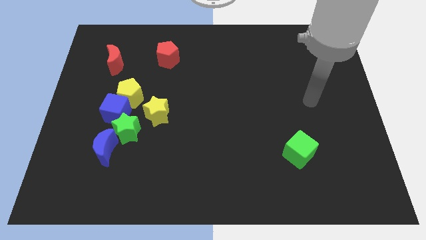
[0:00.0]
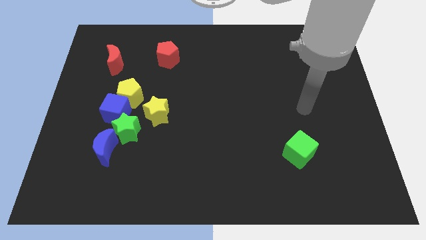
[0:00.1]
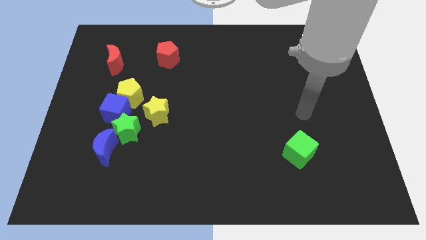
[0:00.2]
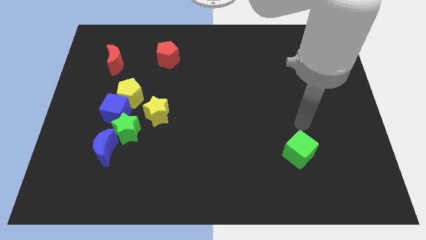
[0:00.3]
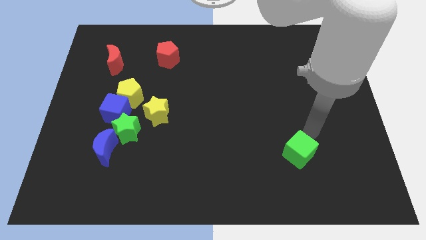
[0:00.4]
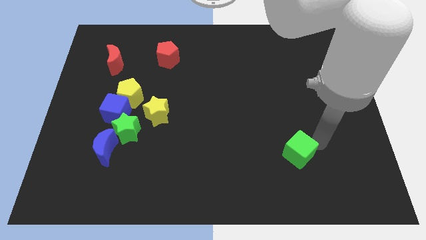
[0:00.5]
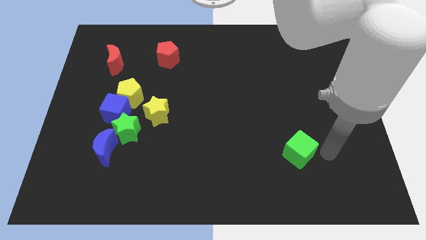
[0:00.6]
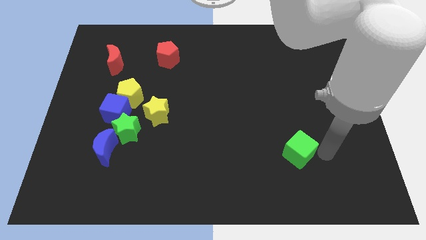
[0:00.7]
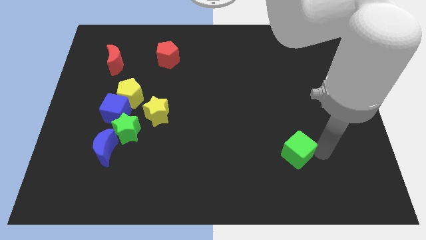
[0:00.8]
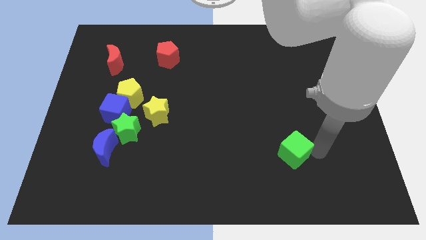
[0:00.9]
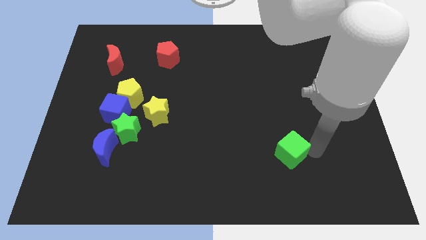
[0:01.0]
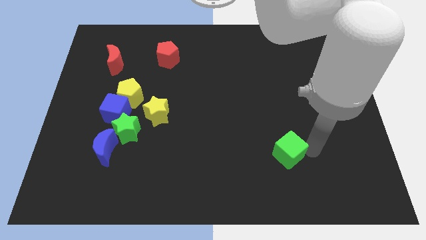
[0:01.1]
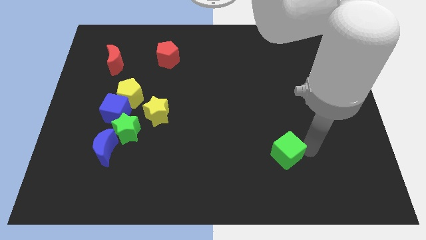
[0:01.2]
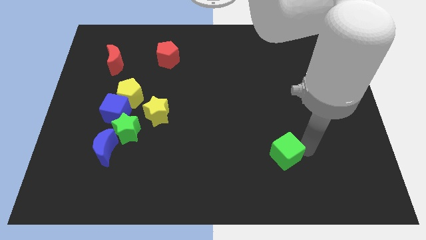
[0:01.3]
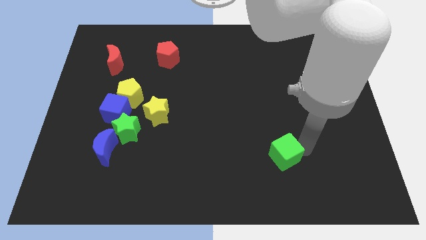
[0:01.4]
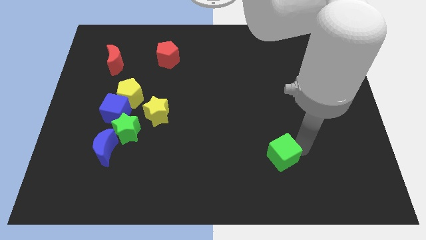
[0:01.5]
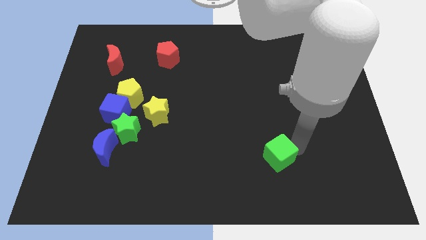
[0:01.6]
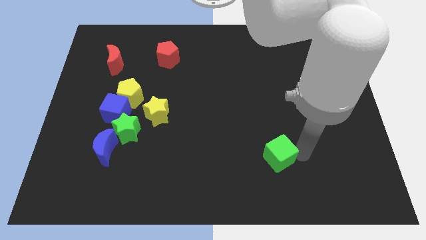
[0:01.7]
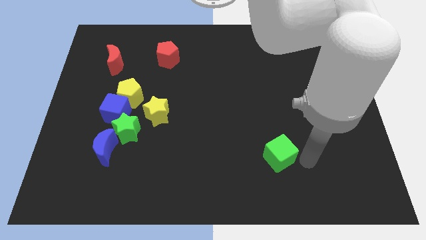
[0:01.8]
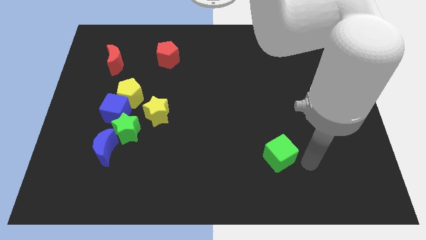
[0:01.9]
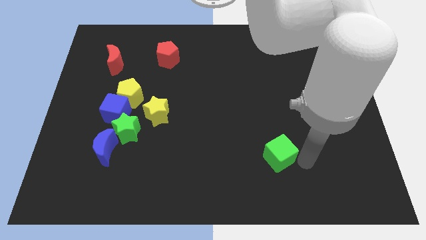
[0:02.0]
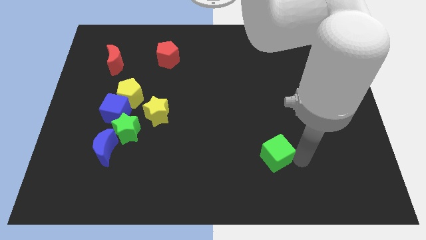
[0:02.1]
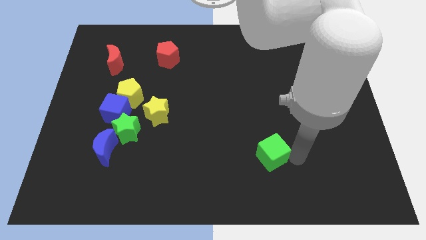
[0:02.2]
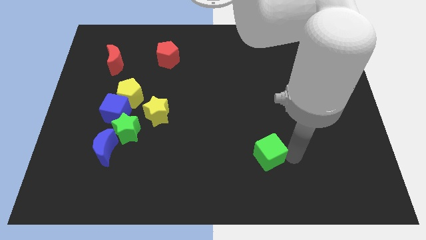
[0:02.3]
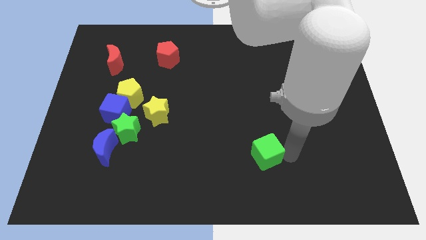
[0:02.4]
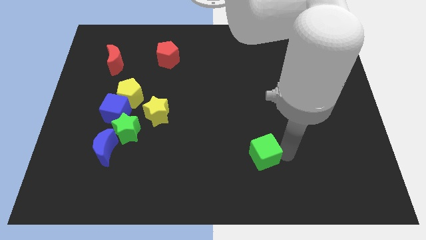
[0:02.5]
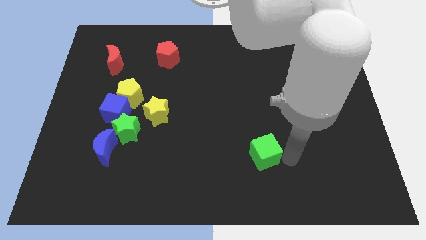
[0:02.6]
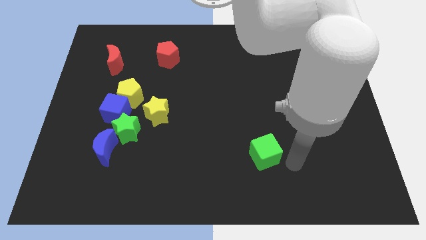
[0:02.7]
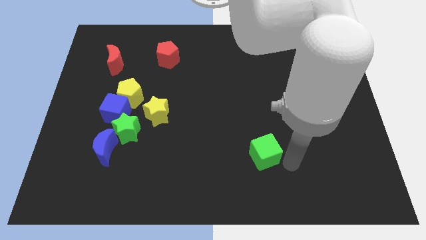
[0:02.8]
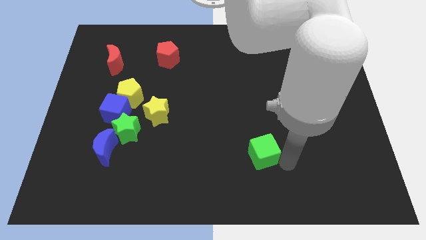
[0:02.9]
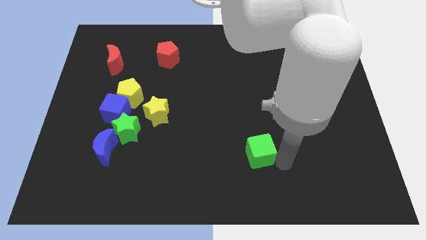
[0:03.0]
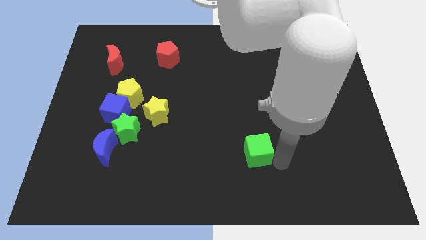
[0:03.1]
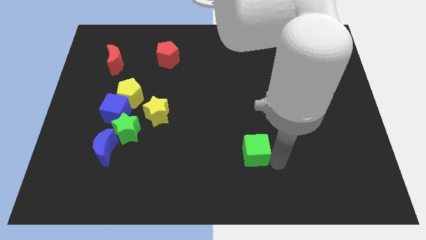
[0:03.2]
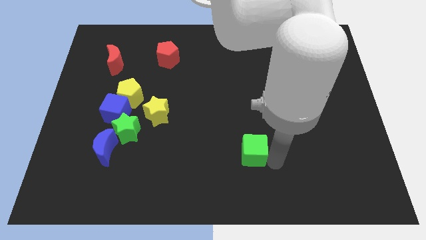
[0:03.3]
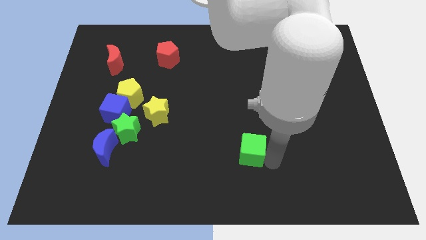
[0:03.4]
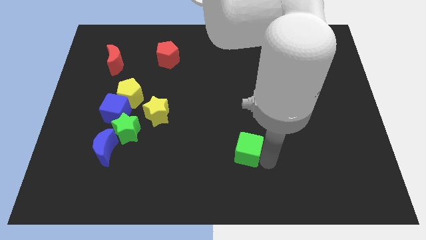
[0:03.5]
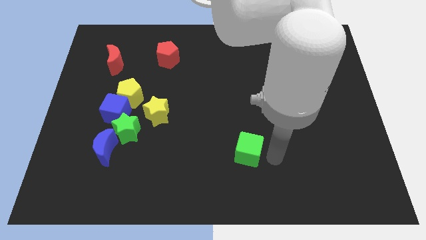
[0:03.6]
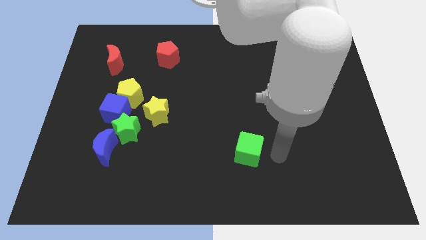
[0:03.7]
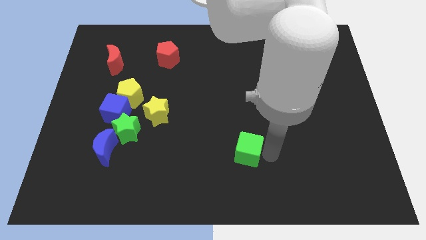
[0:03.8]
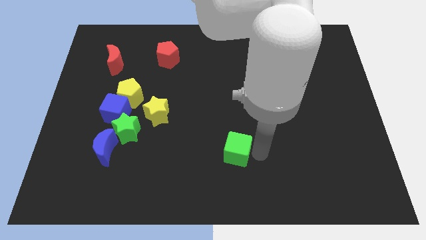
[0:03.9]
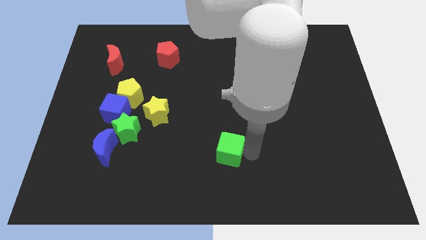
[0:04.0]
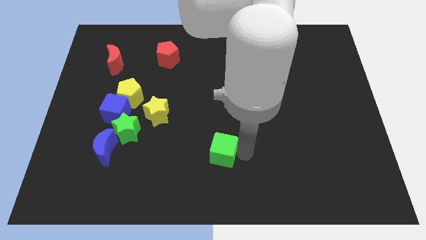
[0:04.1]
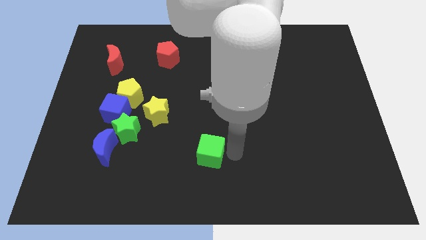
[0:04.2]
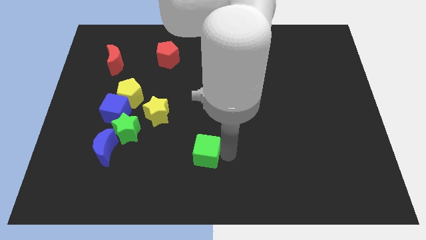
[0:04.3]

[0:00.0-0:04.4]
push the green cube left

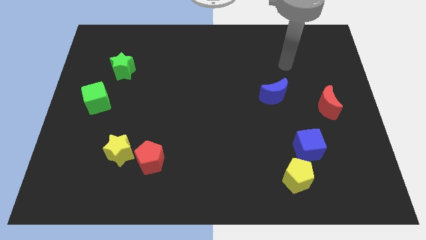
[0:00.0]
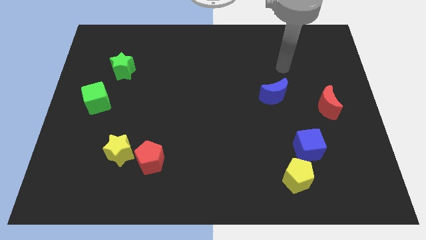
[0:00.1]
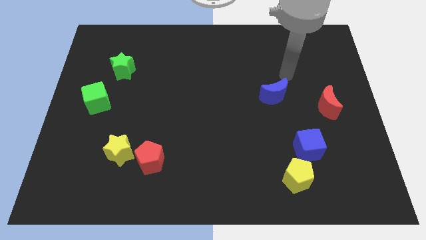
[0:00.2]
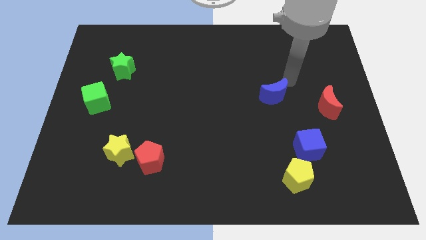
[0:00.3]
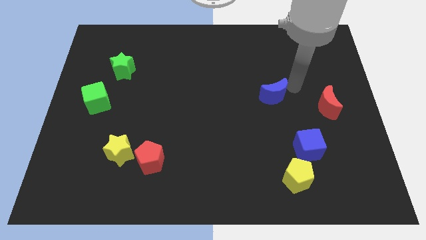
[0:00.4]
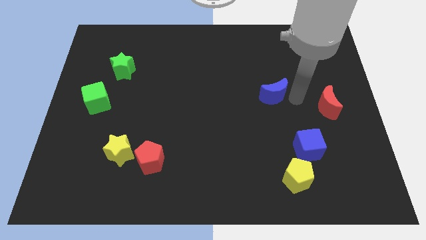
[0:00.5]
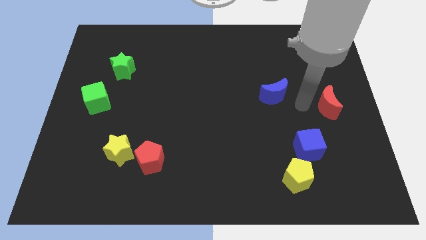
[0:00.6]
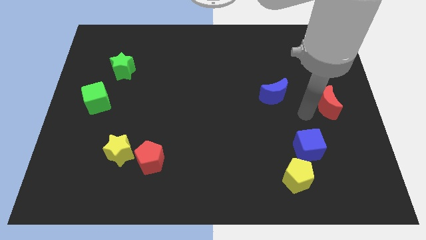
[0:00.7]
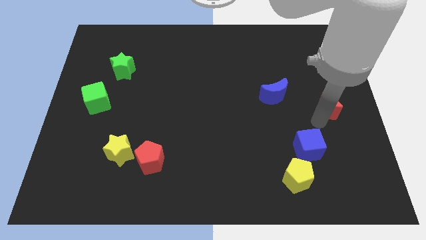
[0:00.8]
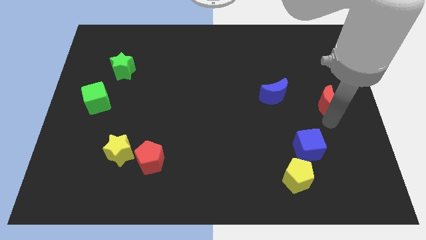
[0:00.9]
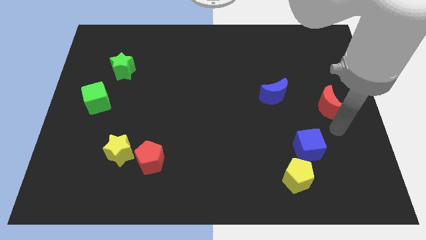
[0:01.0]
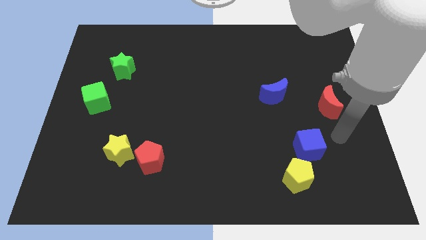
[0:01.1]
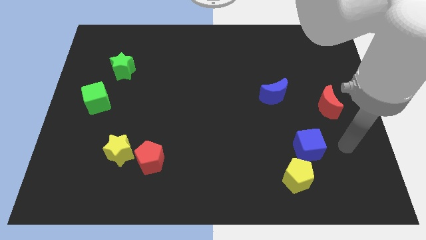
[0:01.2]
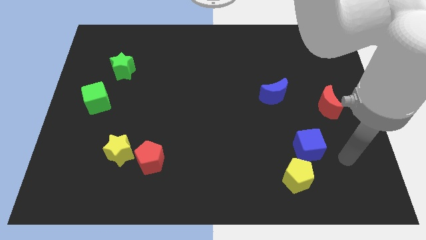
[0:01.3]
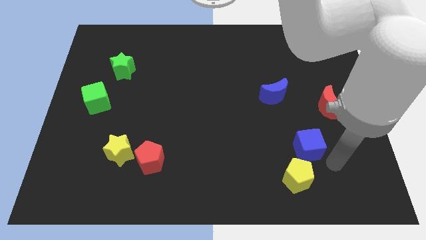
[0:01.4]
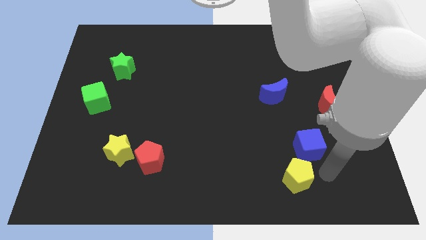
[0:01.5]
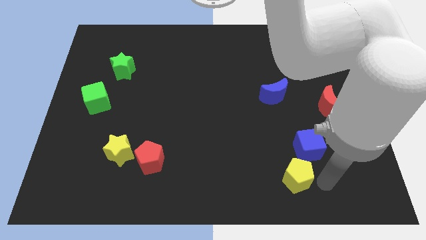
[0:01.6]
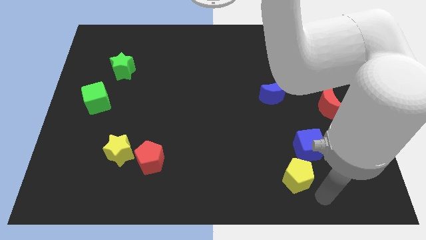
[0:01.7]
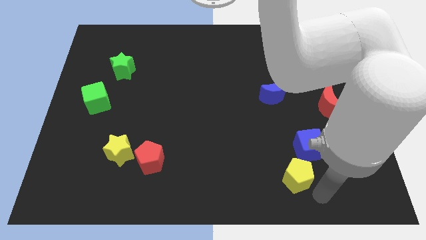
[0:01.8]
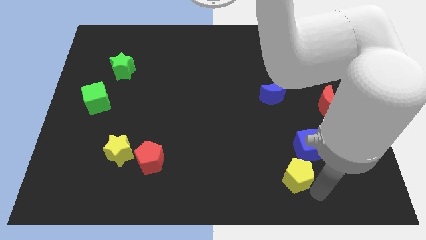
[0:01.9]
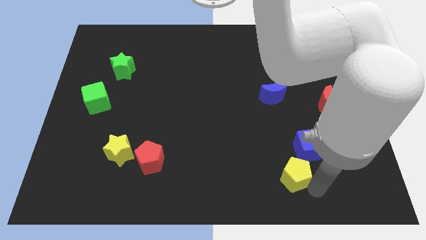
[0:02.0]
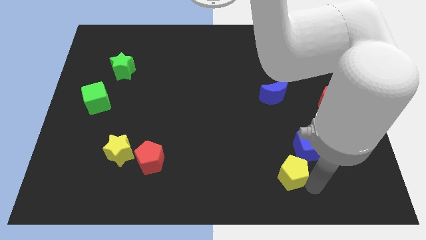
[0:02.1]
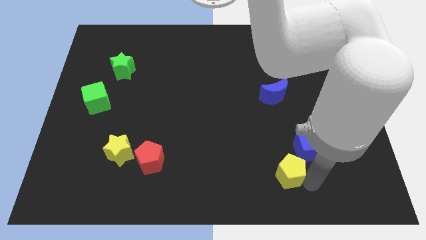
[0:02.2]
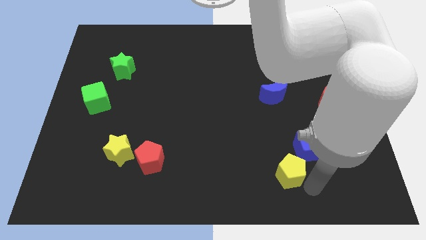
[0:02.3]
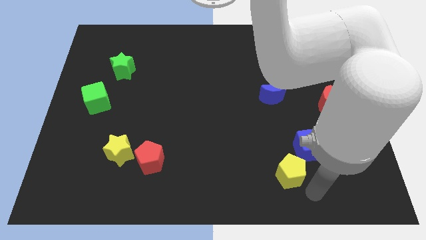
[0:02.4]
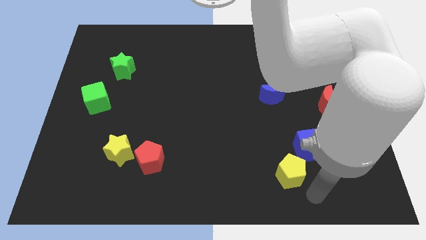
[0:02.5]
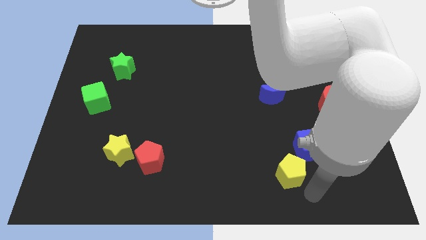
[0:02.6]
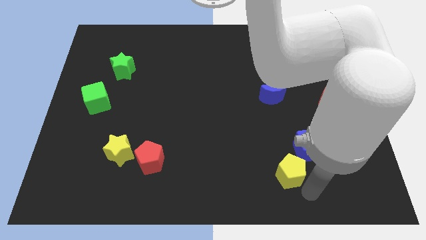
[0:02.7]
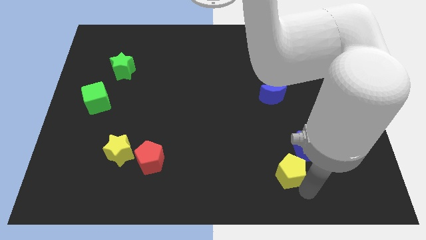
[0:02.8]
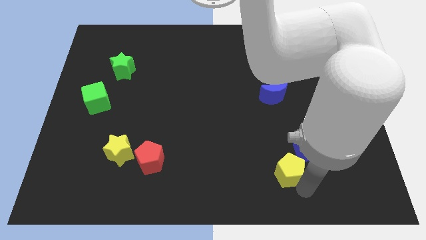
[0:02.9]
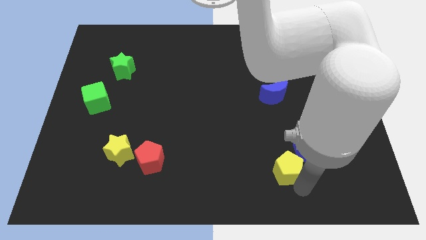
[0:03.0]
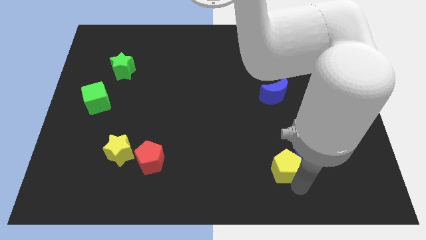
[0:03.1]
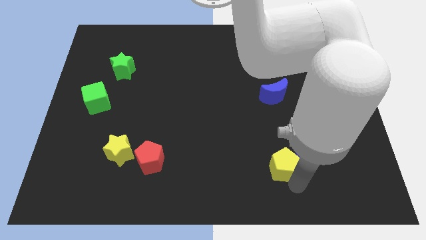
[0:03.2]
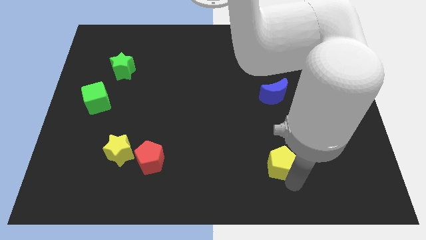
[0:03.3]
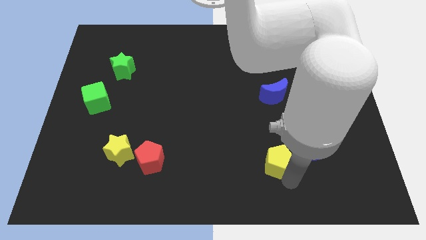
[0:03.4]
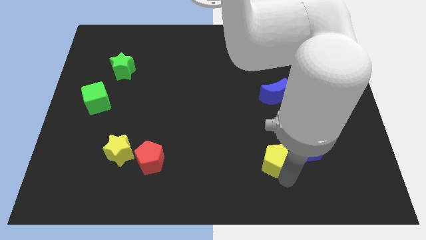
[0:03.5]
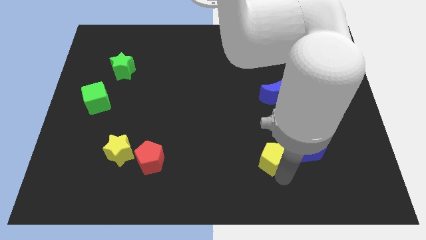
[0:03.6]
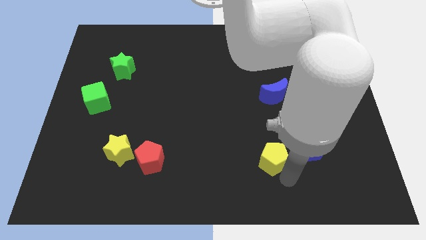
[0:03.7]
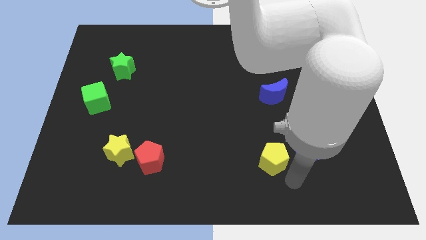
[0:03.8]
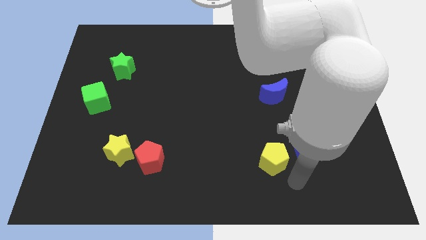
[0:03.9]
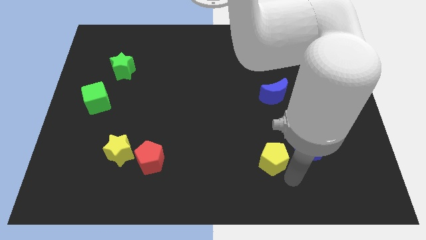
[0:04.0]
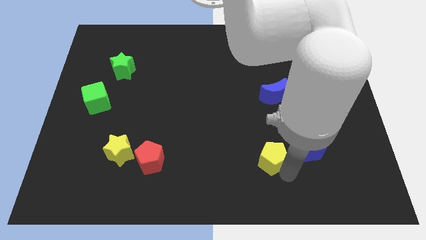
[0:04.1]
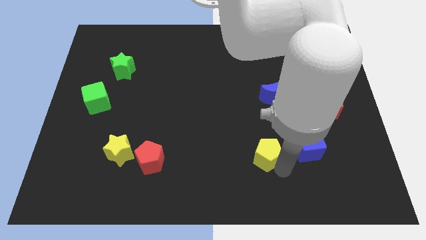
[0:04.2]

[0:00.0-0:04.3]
slightly push the yellow pentagon up and left
